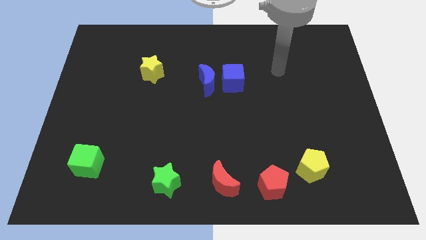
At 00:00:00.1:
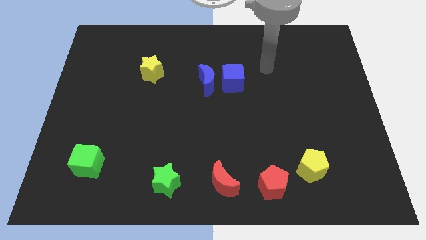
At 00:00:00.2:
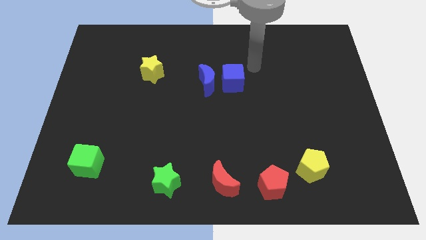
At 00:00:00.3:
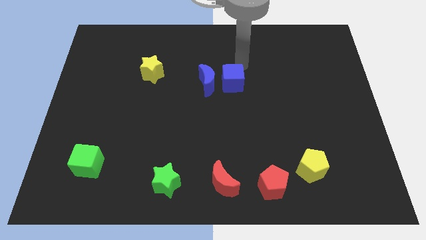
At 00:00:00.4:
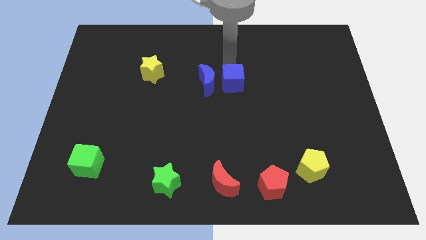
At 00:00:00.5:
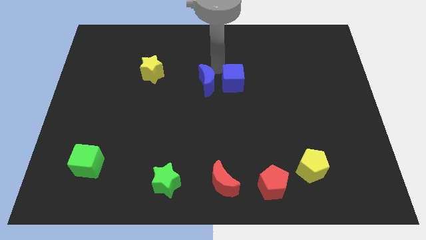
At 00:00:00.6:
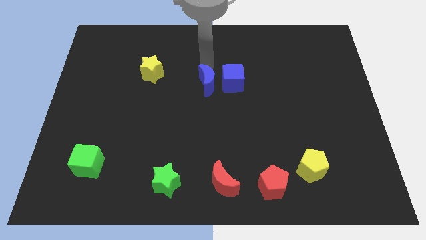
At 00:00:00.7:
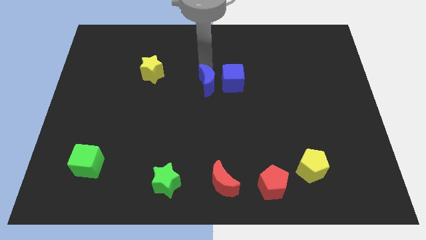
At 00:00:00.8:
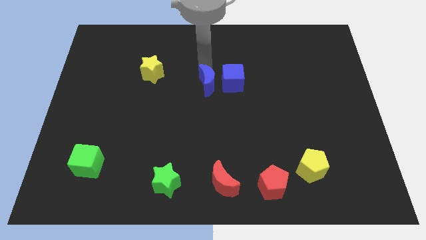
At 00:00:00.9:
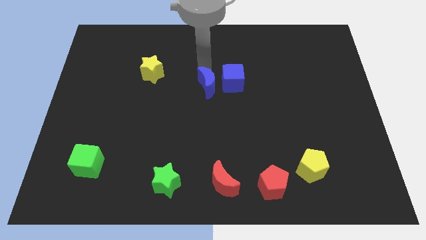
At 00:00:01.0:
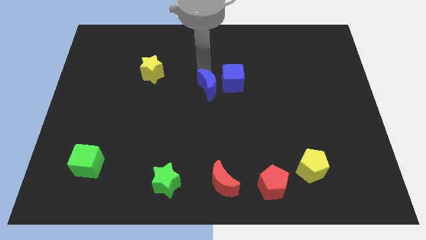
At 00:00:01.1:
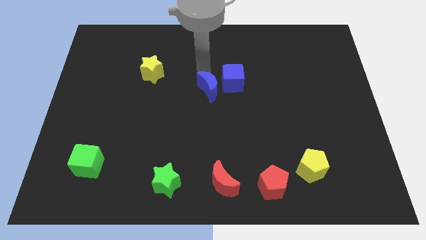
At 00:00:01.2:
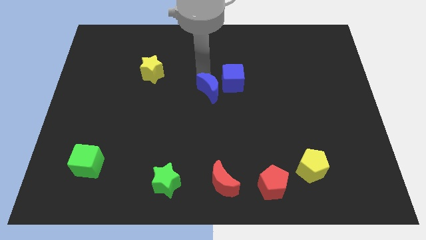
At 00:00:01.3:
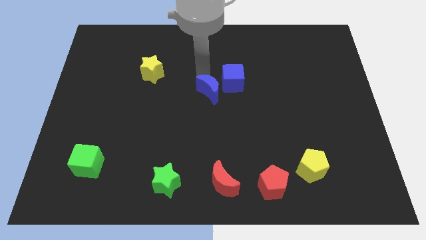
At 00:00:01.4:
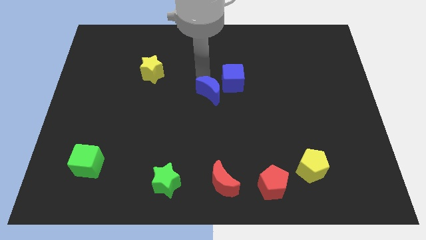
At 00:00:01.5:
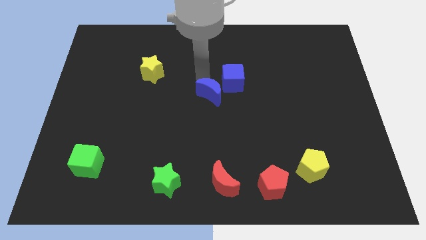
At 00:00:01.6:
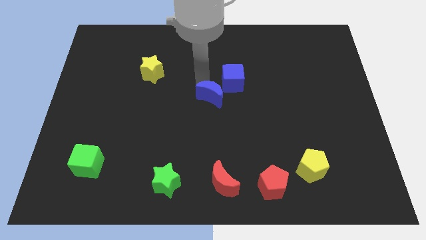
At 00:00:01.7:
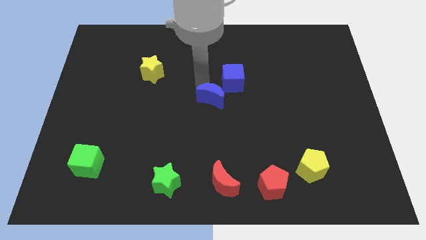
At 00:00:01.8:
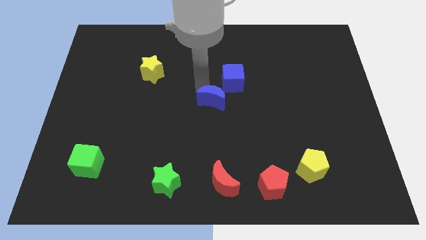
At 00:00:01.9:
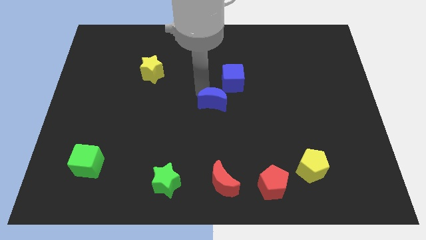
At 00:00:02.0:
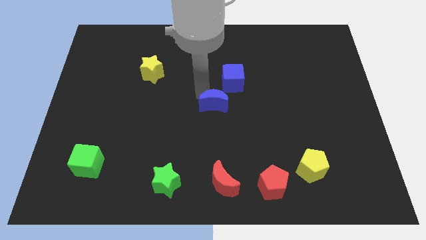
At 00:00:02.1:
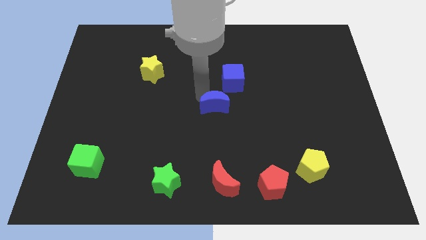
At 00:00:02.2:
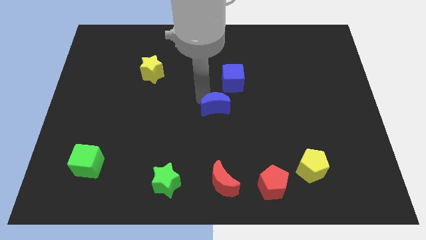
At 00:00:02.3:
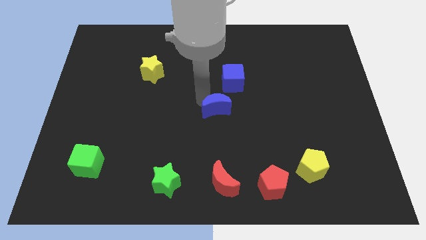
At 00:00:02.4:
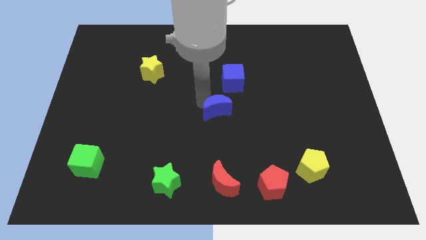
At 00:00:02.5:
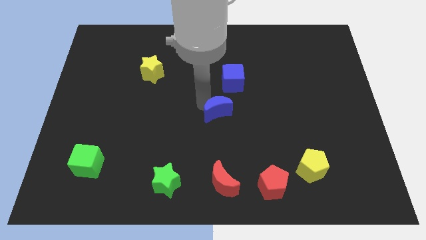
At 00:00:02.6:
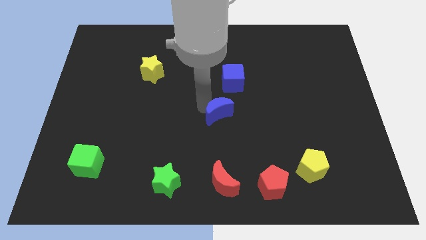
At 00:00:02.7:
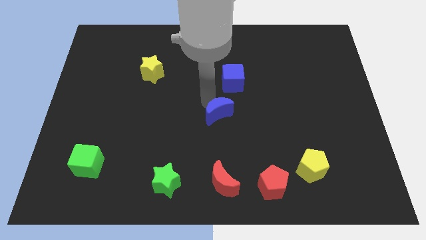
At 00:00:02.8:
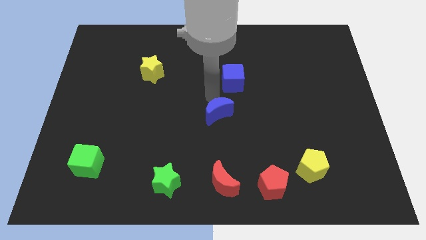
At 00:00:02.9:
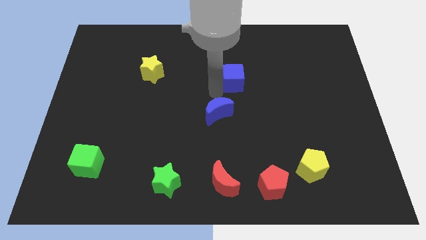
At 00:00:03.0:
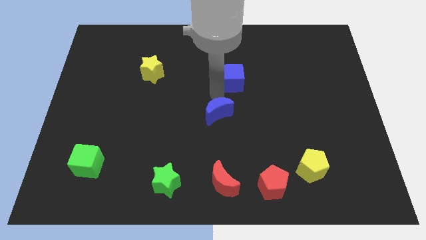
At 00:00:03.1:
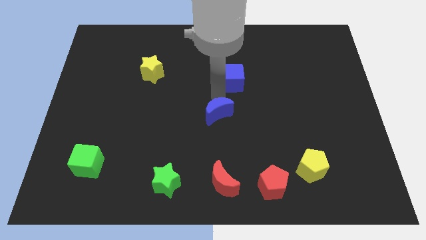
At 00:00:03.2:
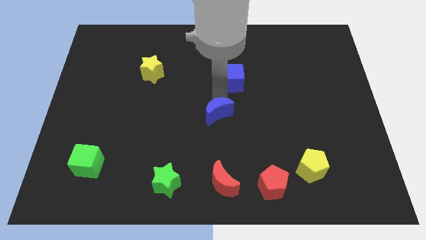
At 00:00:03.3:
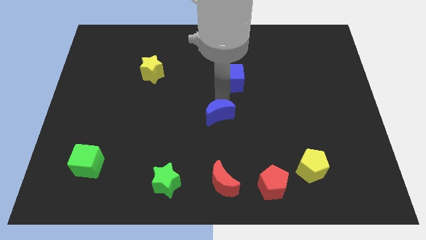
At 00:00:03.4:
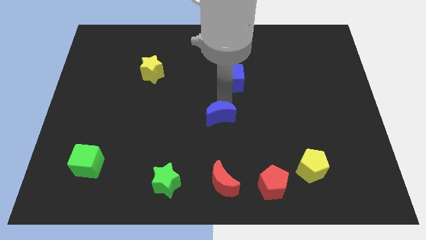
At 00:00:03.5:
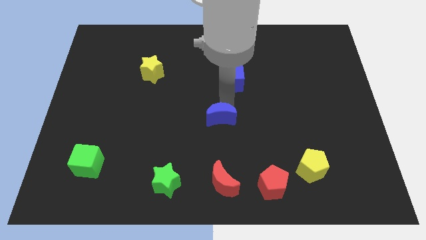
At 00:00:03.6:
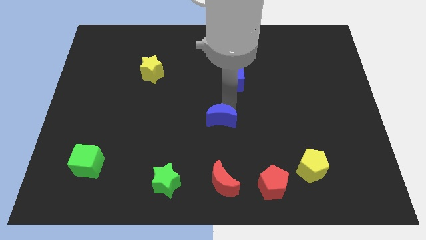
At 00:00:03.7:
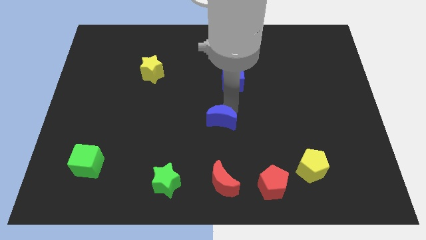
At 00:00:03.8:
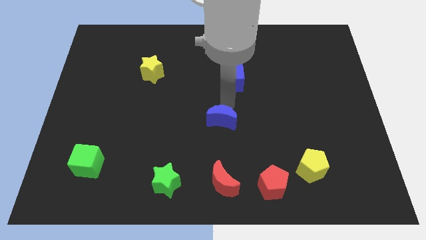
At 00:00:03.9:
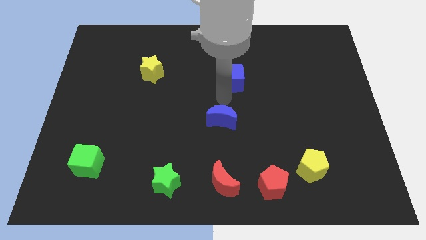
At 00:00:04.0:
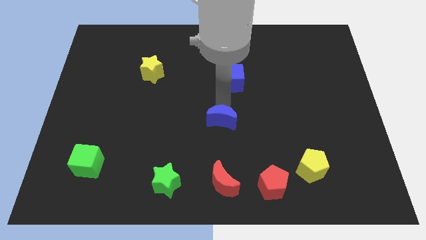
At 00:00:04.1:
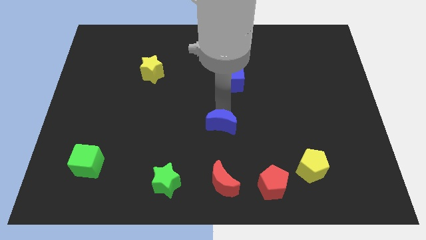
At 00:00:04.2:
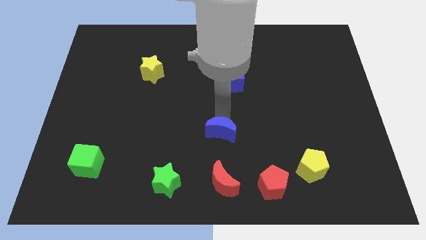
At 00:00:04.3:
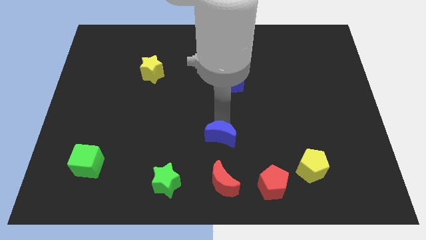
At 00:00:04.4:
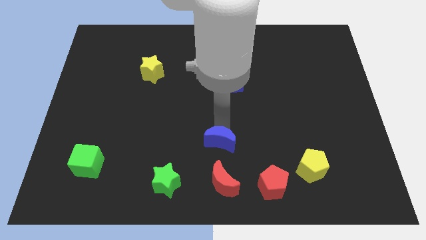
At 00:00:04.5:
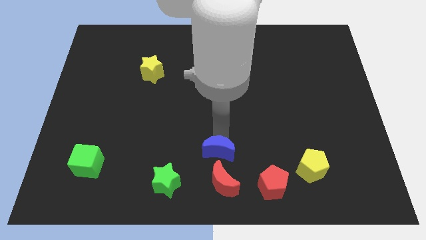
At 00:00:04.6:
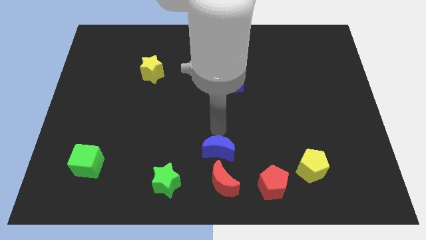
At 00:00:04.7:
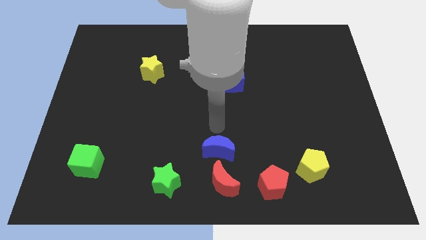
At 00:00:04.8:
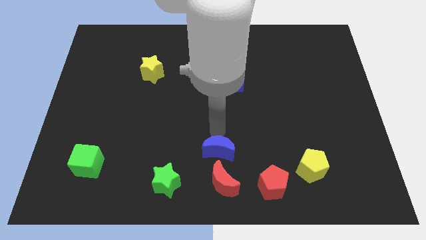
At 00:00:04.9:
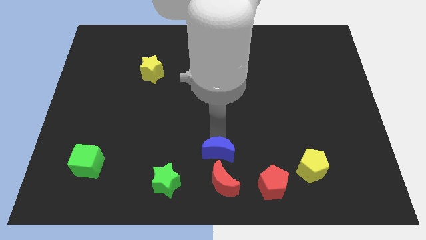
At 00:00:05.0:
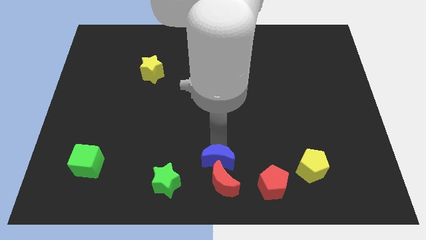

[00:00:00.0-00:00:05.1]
put the blue moon next to the red moon

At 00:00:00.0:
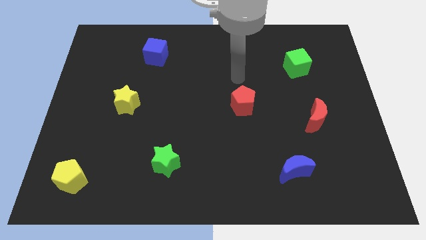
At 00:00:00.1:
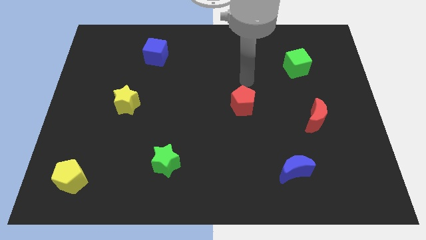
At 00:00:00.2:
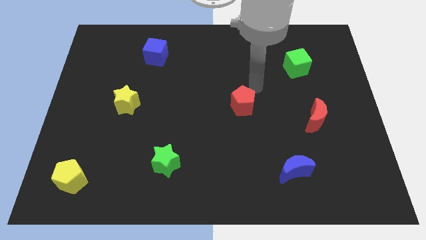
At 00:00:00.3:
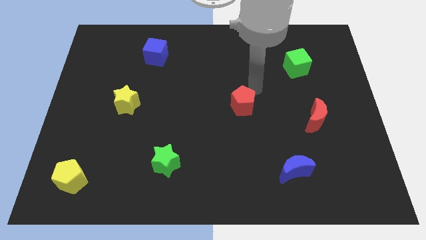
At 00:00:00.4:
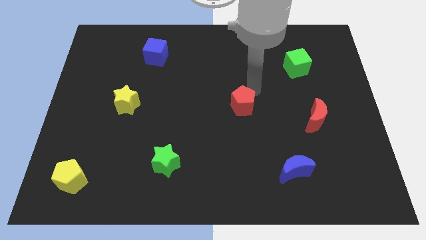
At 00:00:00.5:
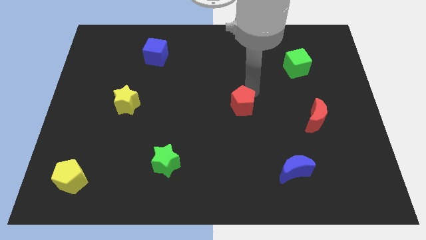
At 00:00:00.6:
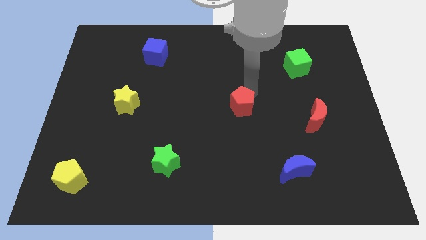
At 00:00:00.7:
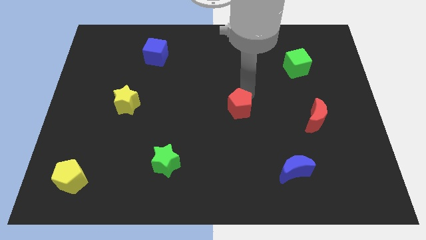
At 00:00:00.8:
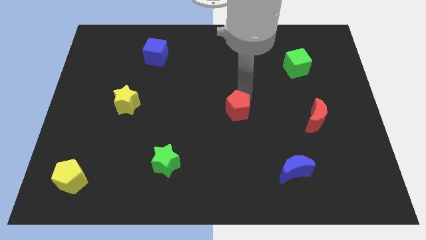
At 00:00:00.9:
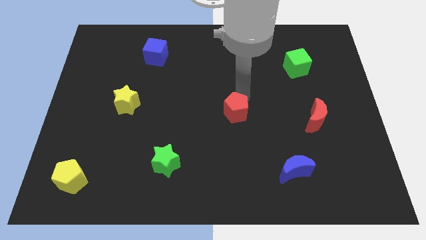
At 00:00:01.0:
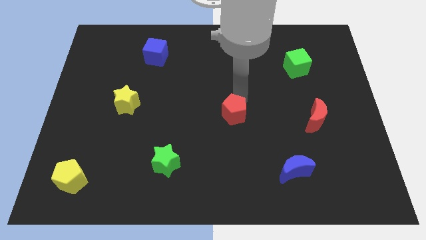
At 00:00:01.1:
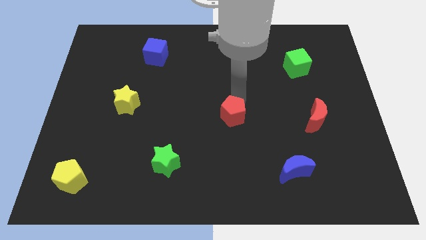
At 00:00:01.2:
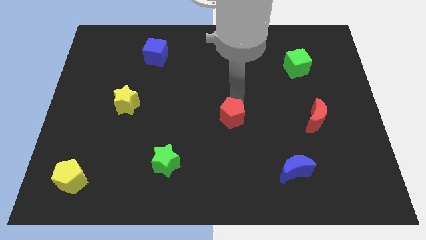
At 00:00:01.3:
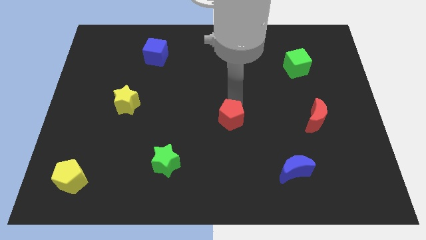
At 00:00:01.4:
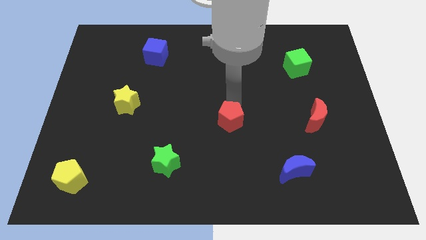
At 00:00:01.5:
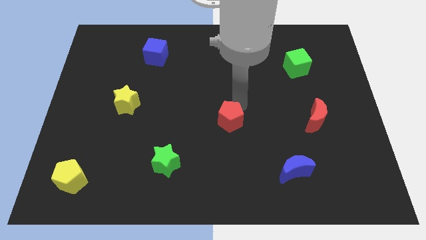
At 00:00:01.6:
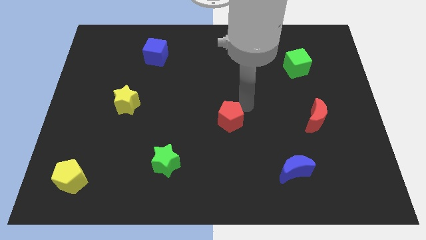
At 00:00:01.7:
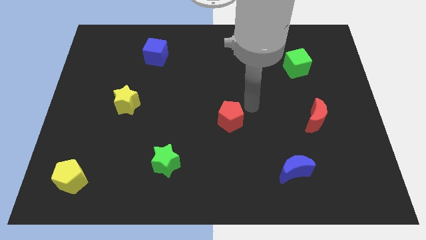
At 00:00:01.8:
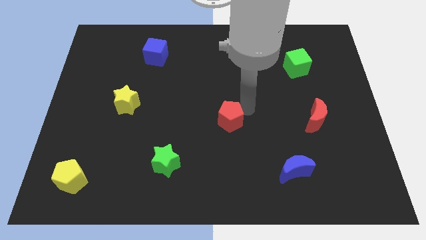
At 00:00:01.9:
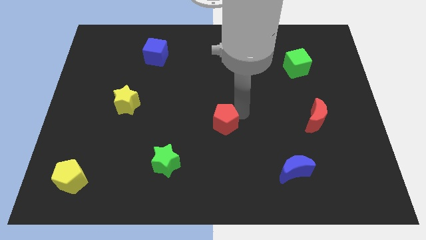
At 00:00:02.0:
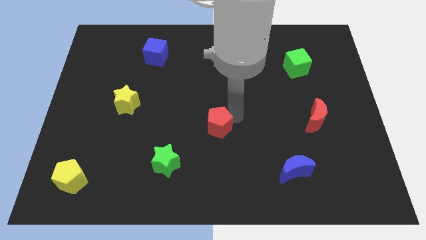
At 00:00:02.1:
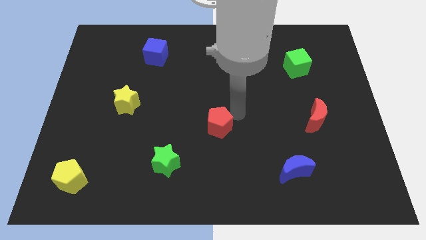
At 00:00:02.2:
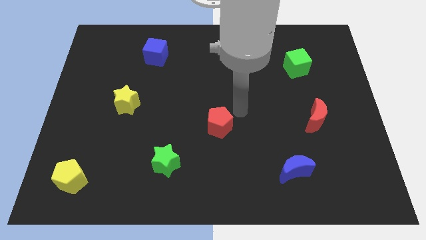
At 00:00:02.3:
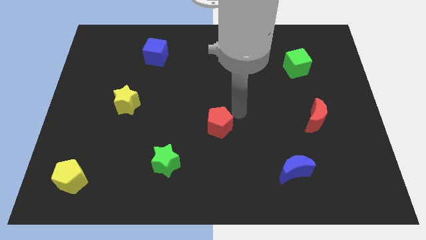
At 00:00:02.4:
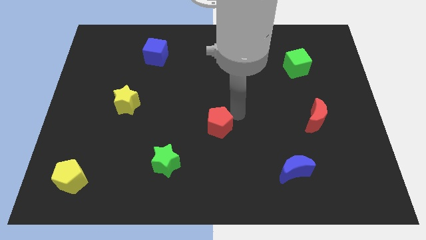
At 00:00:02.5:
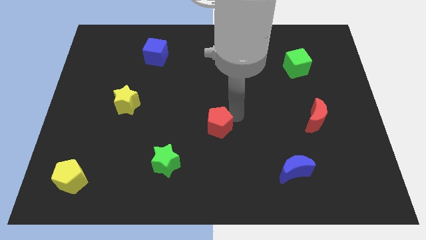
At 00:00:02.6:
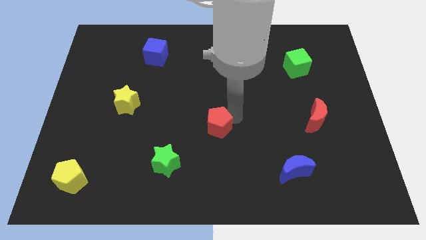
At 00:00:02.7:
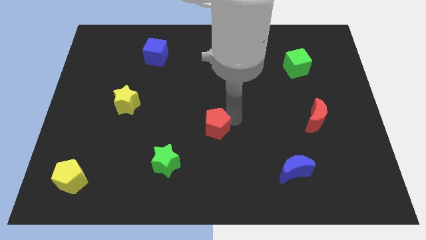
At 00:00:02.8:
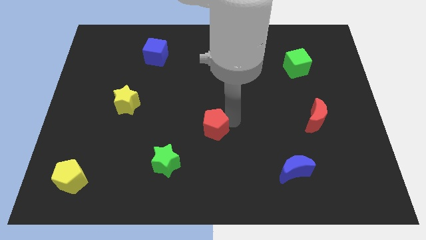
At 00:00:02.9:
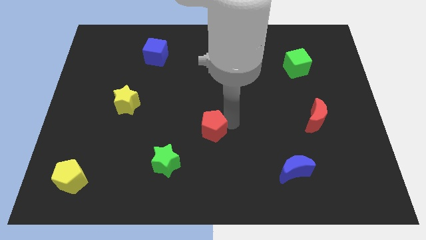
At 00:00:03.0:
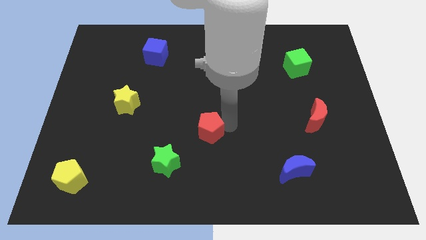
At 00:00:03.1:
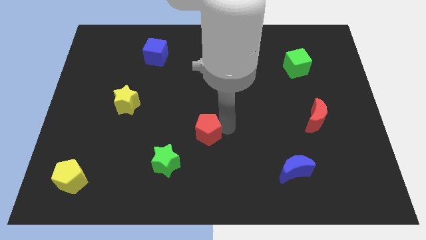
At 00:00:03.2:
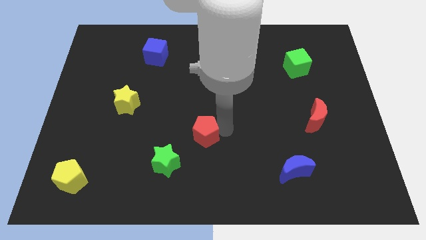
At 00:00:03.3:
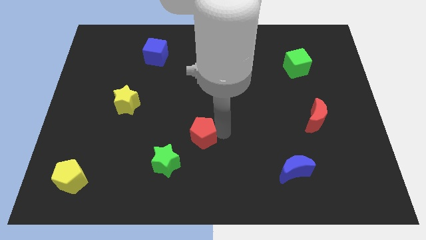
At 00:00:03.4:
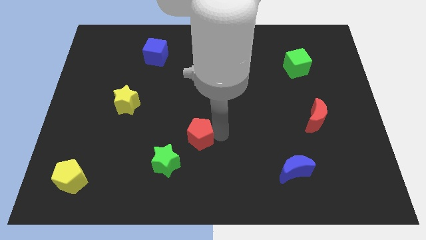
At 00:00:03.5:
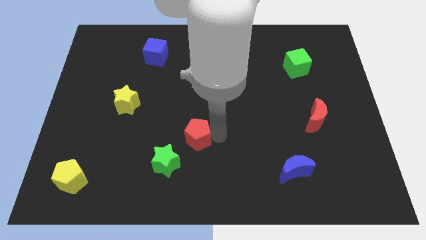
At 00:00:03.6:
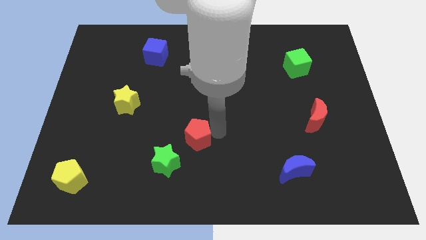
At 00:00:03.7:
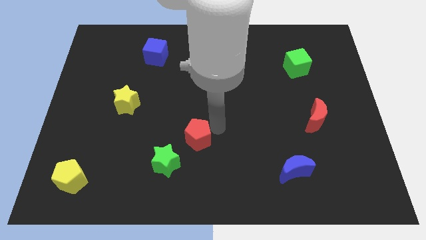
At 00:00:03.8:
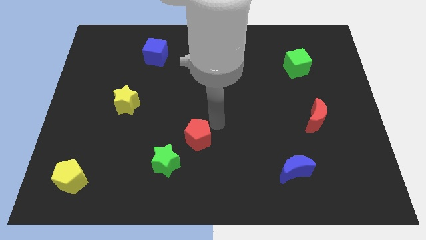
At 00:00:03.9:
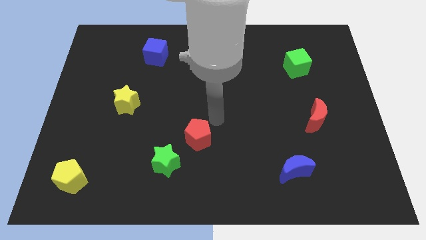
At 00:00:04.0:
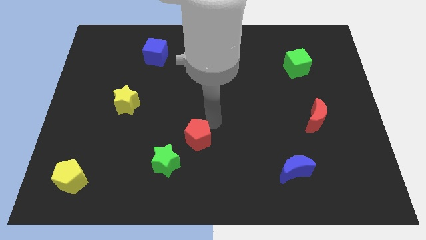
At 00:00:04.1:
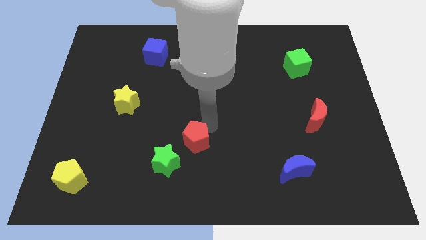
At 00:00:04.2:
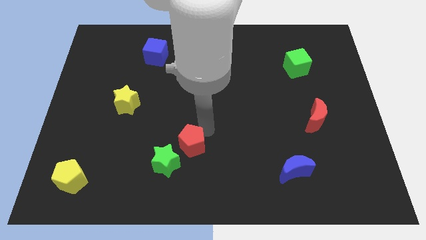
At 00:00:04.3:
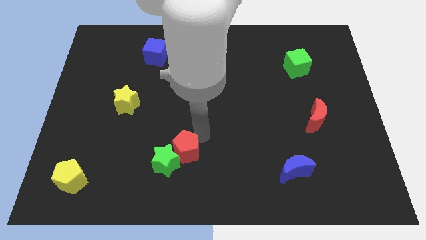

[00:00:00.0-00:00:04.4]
slide the red pentagon next to the green star
